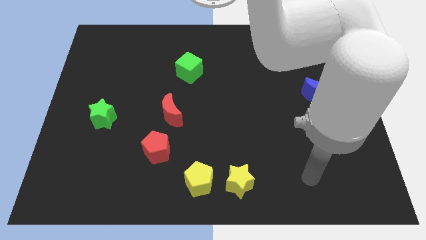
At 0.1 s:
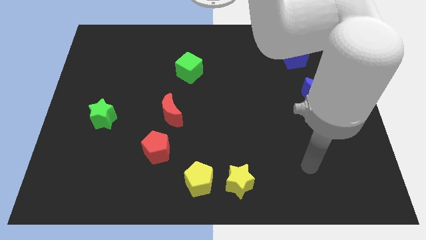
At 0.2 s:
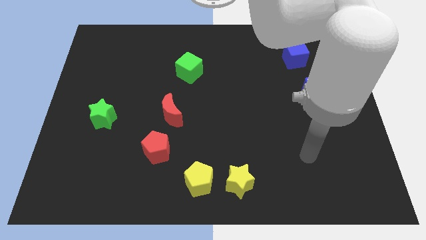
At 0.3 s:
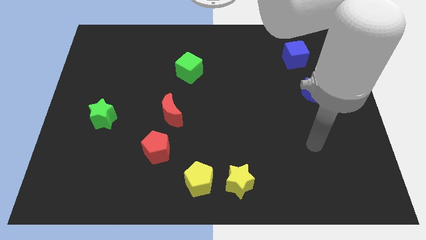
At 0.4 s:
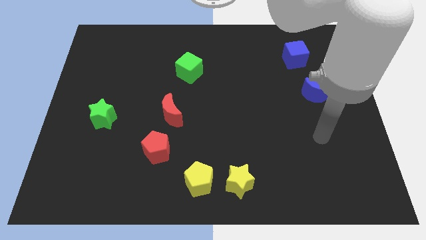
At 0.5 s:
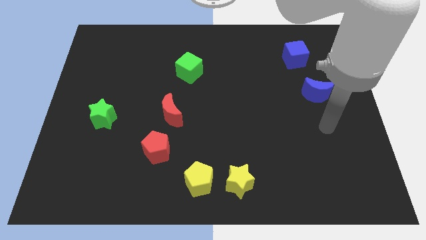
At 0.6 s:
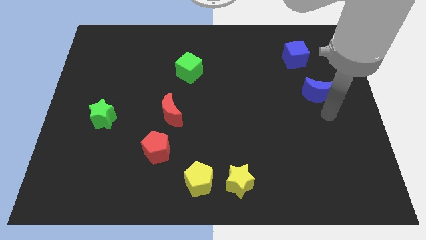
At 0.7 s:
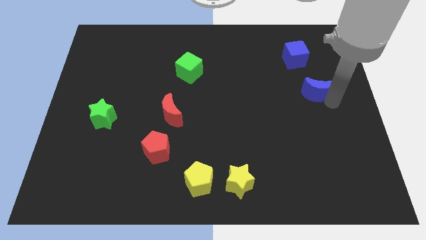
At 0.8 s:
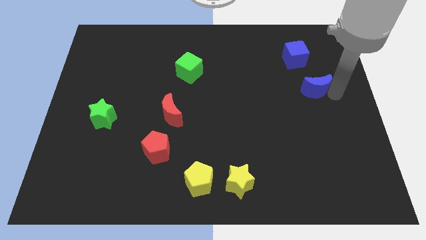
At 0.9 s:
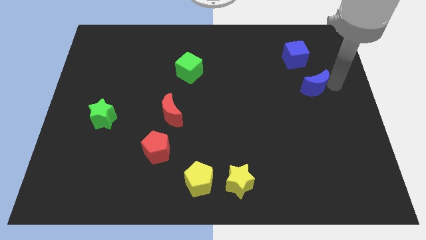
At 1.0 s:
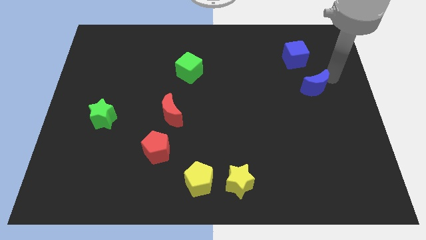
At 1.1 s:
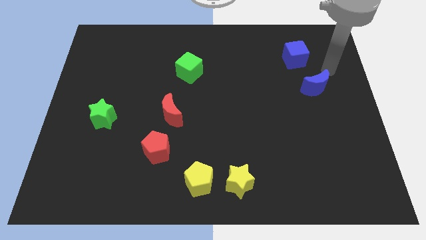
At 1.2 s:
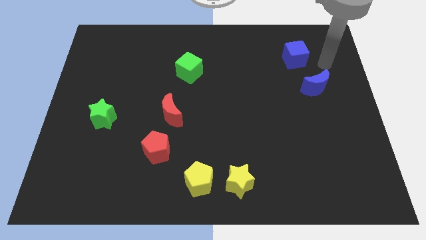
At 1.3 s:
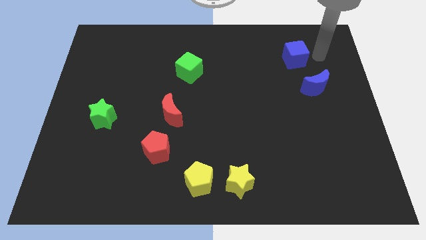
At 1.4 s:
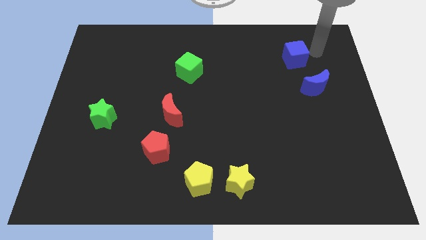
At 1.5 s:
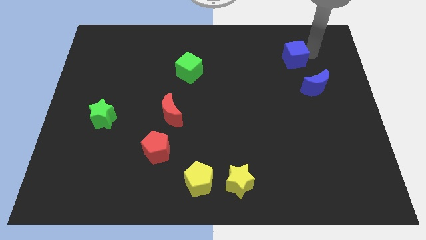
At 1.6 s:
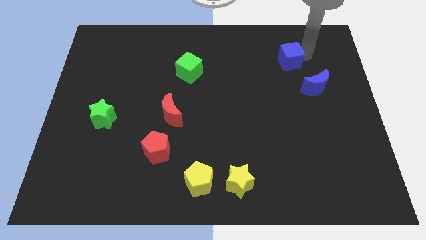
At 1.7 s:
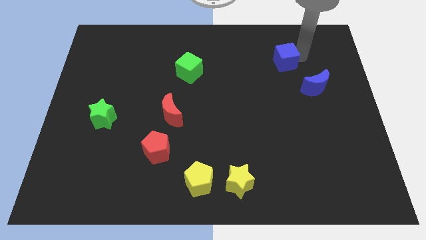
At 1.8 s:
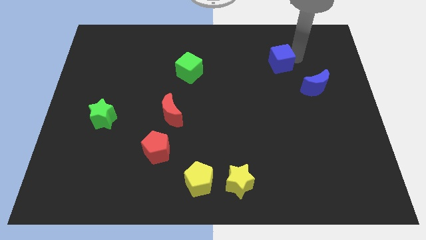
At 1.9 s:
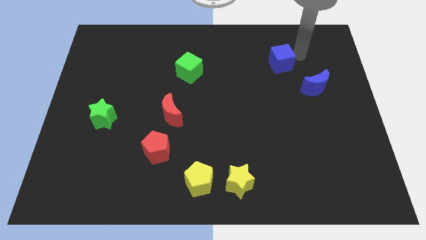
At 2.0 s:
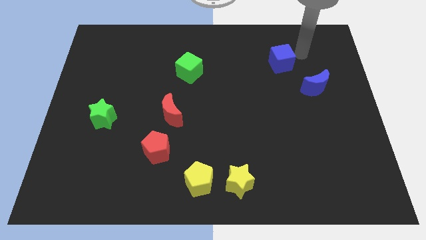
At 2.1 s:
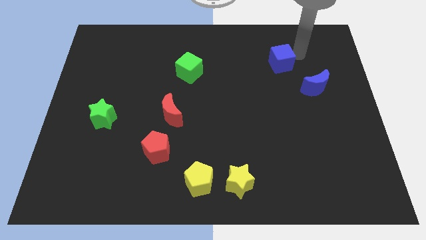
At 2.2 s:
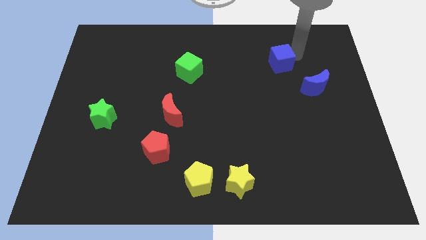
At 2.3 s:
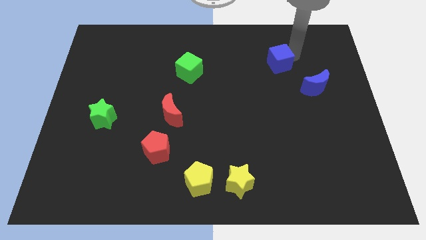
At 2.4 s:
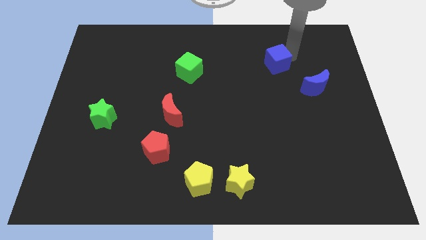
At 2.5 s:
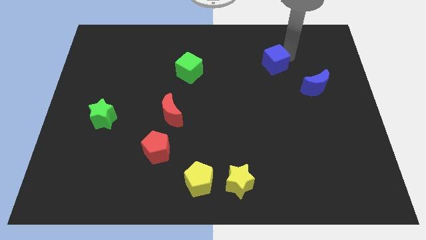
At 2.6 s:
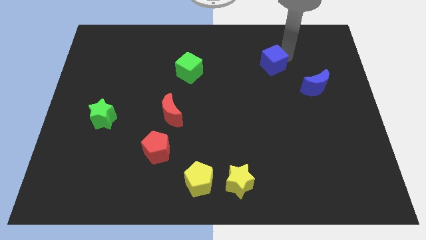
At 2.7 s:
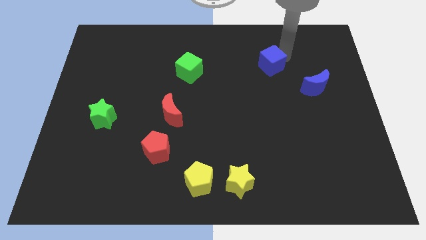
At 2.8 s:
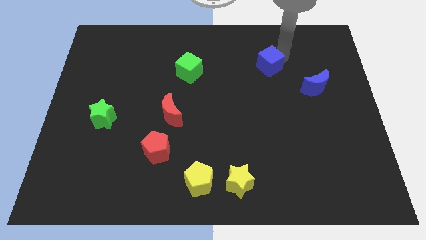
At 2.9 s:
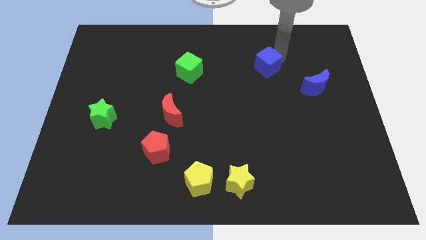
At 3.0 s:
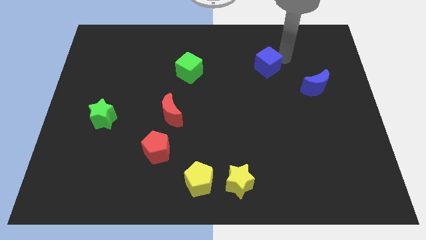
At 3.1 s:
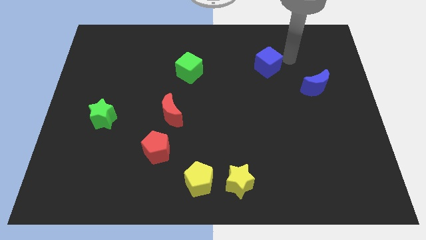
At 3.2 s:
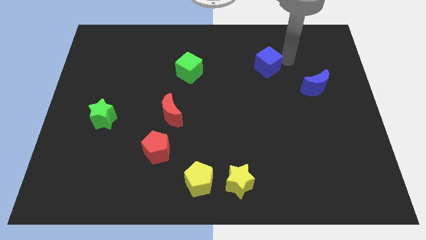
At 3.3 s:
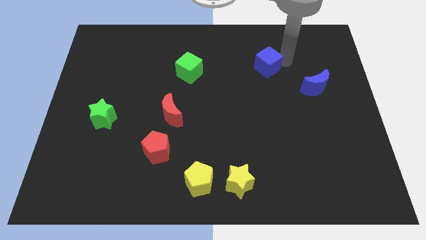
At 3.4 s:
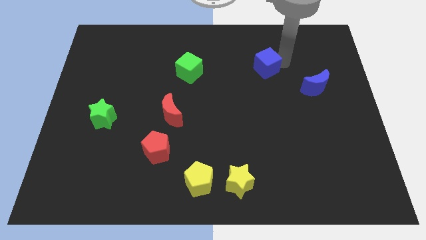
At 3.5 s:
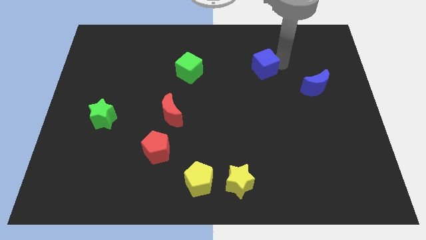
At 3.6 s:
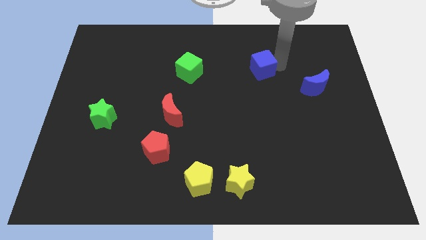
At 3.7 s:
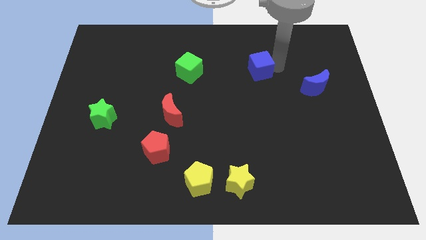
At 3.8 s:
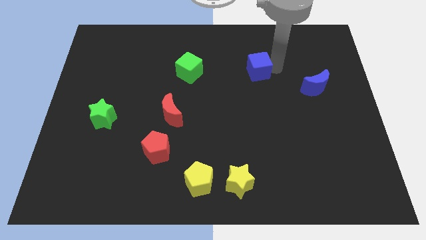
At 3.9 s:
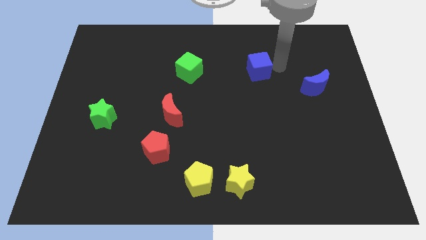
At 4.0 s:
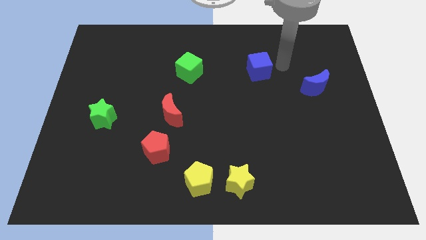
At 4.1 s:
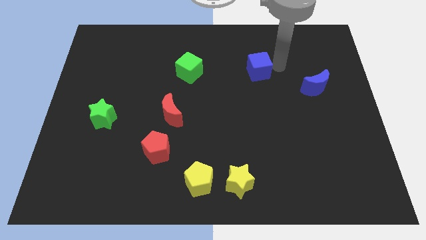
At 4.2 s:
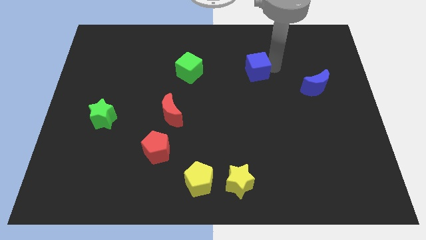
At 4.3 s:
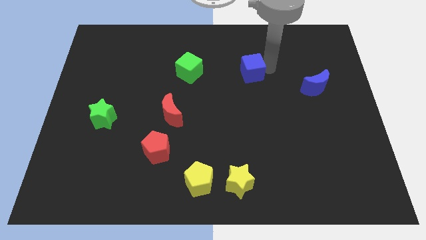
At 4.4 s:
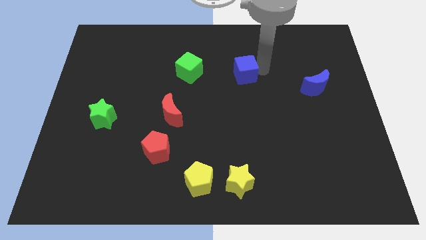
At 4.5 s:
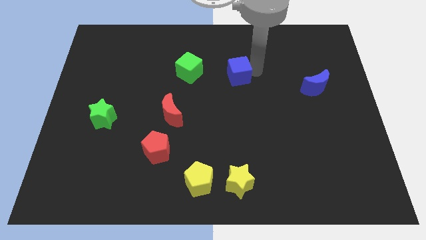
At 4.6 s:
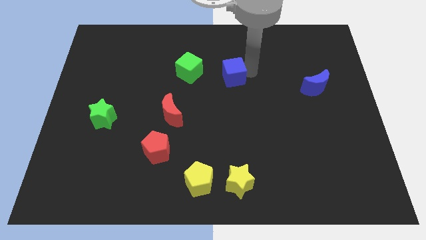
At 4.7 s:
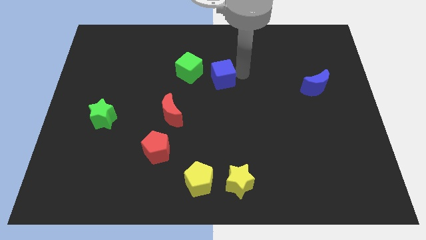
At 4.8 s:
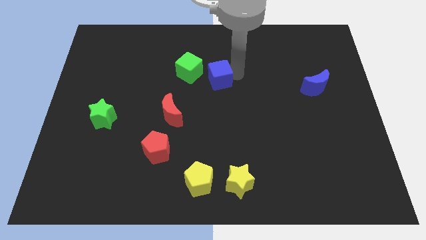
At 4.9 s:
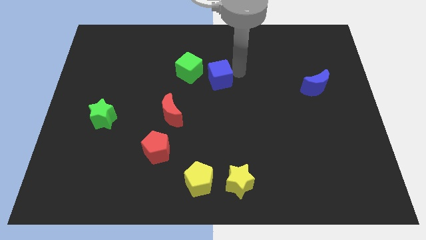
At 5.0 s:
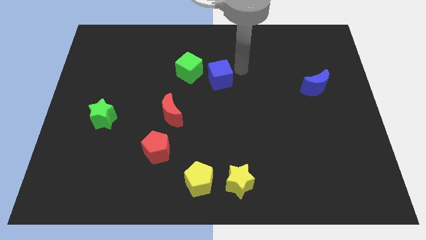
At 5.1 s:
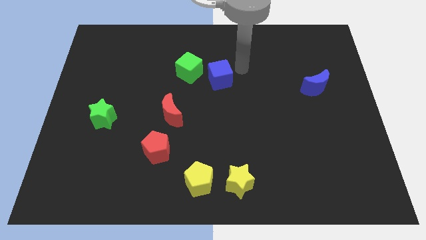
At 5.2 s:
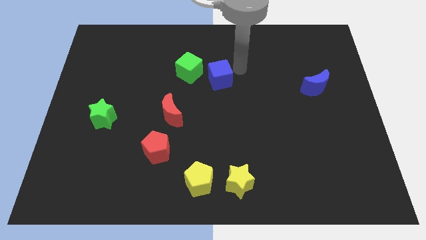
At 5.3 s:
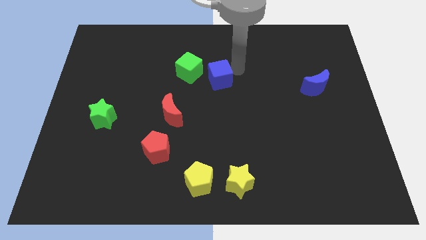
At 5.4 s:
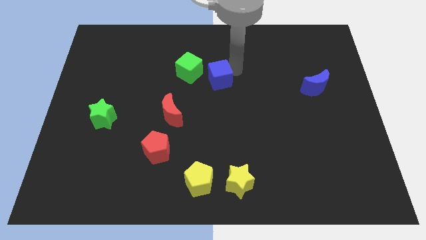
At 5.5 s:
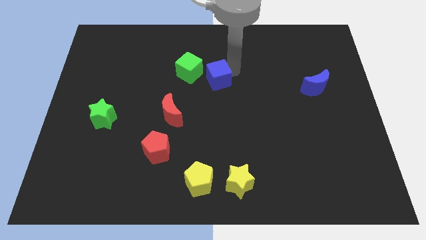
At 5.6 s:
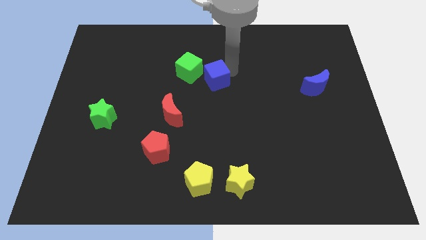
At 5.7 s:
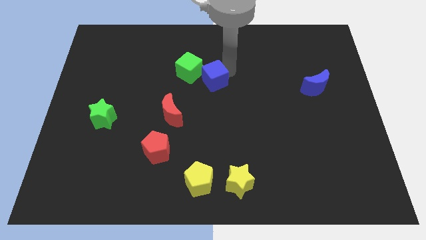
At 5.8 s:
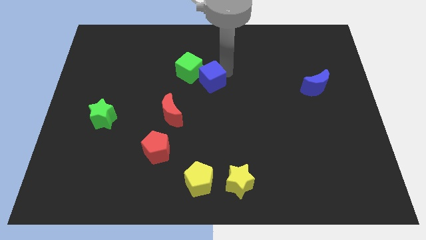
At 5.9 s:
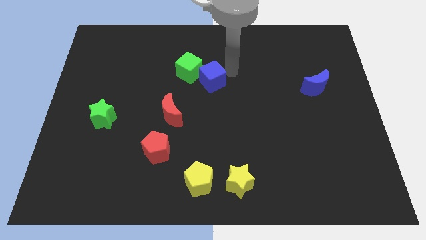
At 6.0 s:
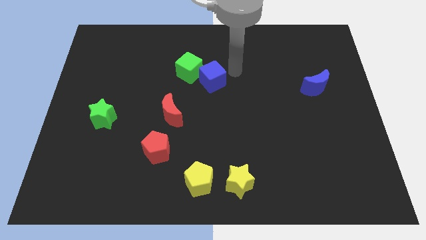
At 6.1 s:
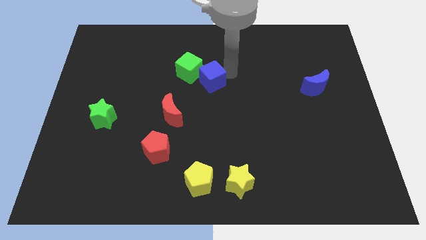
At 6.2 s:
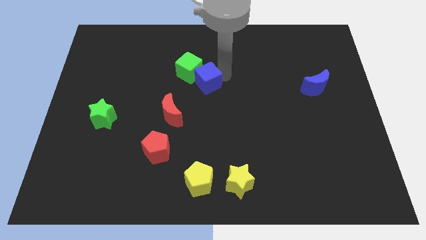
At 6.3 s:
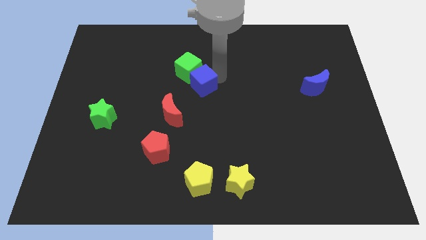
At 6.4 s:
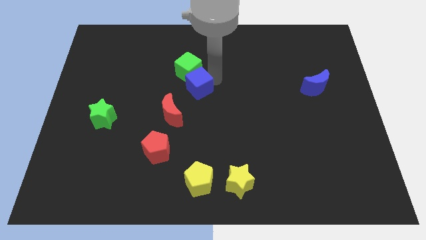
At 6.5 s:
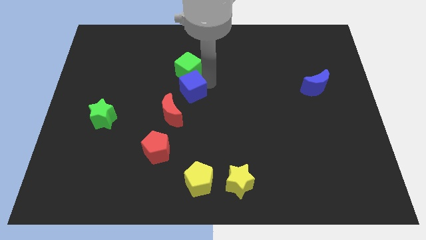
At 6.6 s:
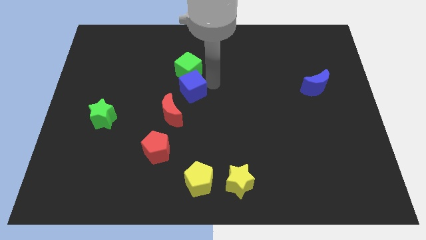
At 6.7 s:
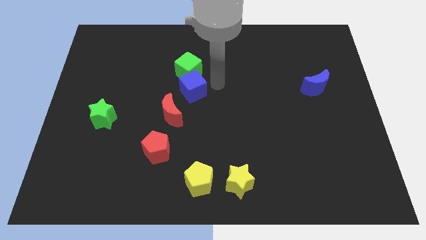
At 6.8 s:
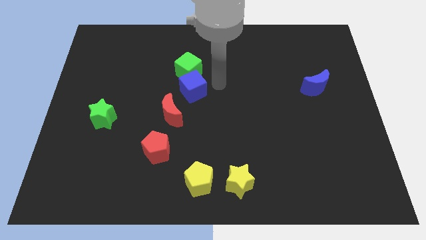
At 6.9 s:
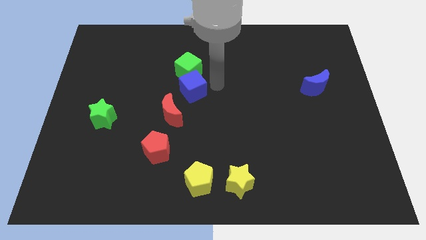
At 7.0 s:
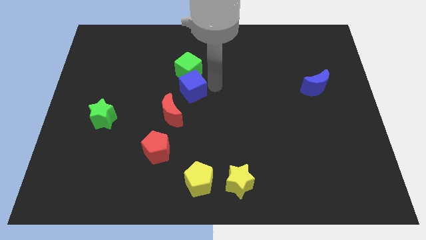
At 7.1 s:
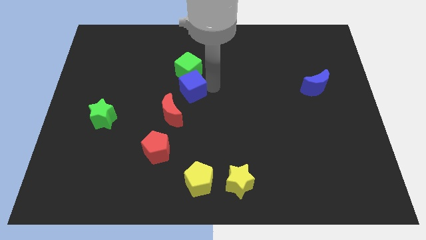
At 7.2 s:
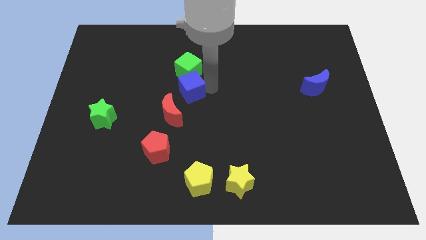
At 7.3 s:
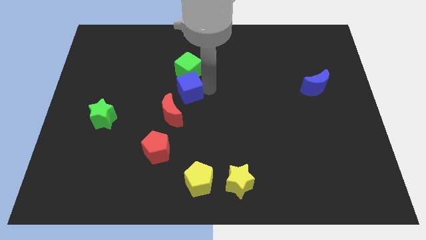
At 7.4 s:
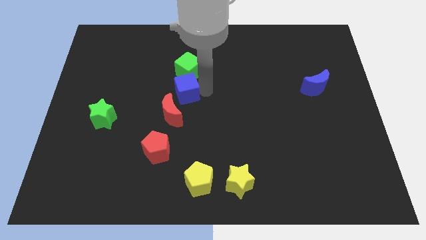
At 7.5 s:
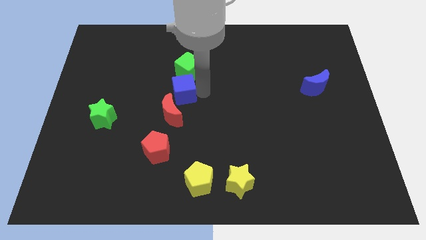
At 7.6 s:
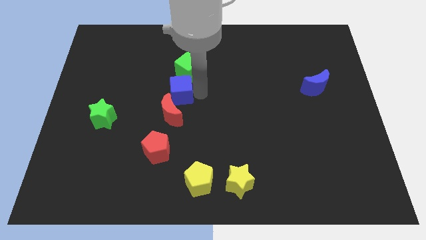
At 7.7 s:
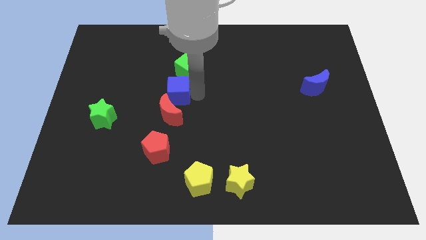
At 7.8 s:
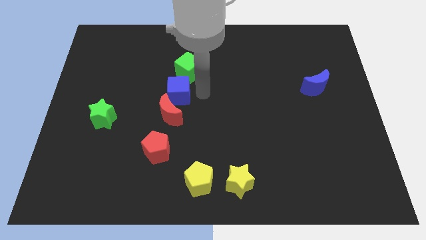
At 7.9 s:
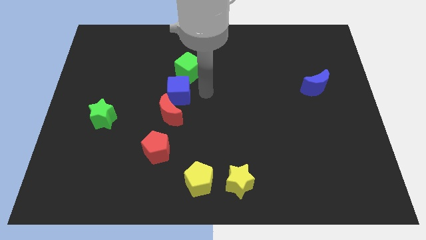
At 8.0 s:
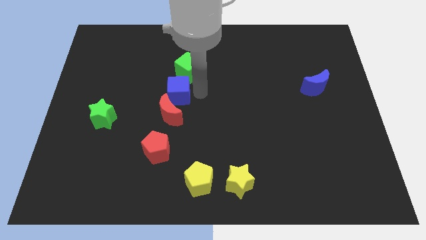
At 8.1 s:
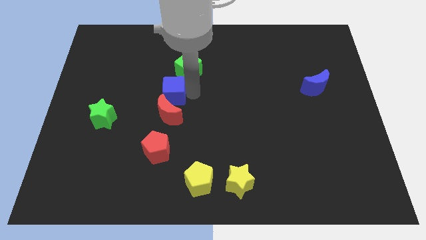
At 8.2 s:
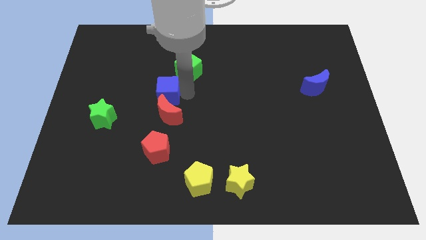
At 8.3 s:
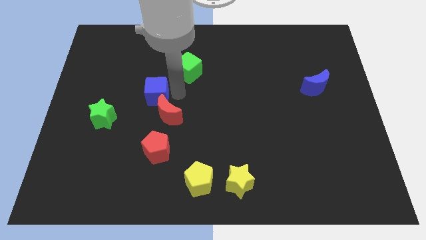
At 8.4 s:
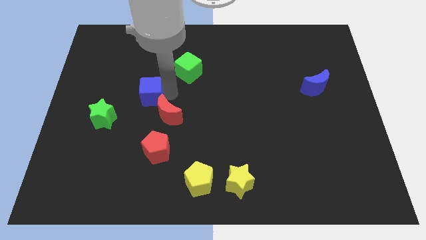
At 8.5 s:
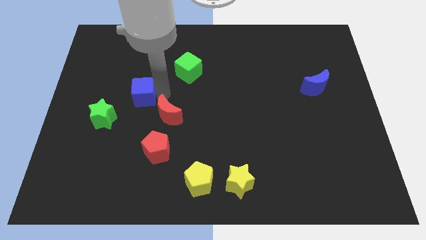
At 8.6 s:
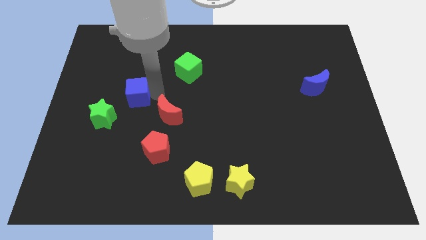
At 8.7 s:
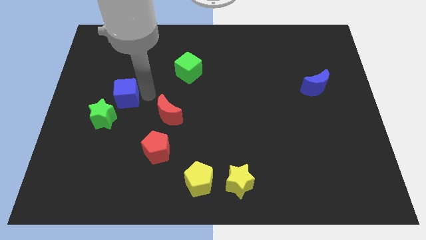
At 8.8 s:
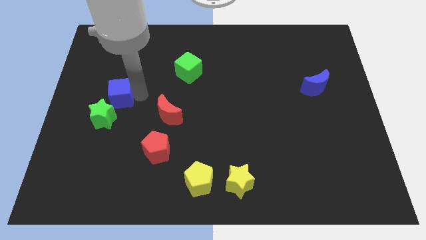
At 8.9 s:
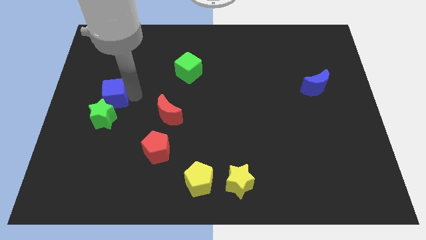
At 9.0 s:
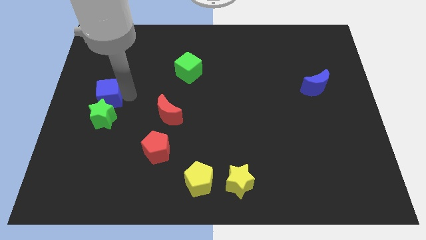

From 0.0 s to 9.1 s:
move the blue cube to the left side
